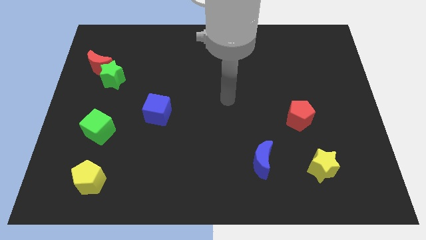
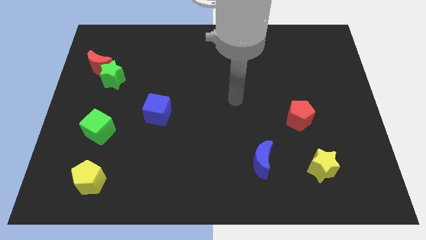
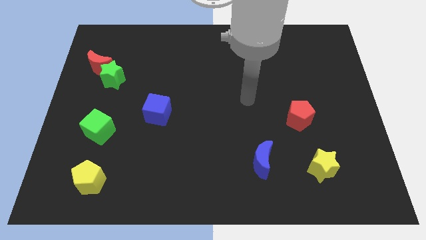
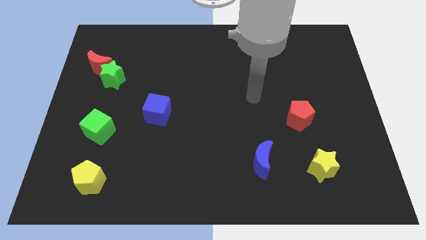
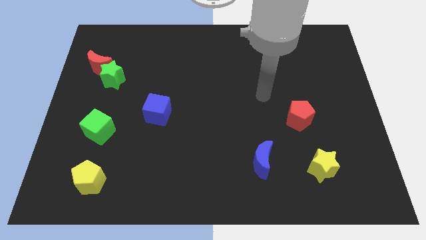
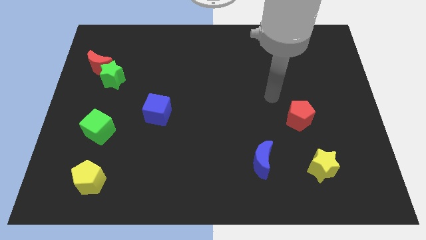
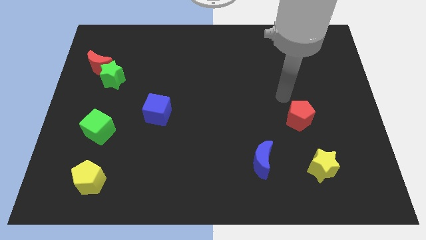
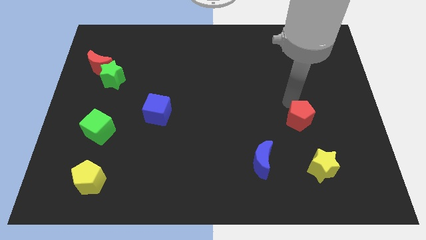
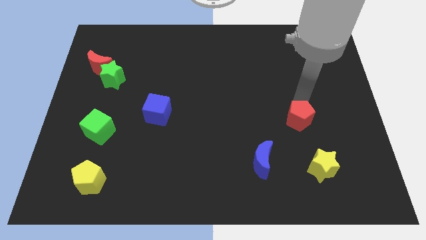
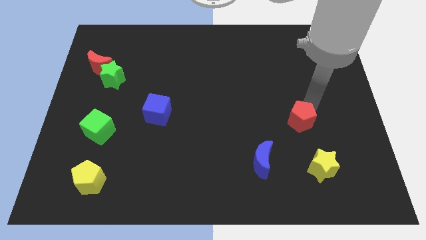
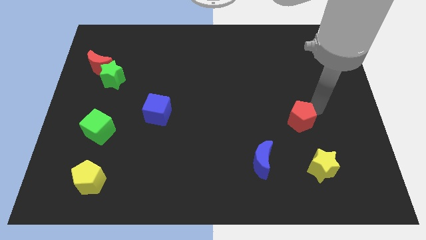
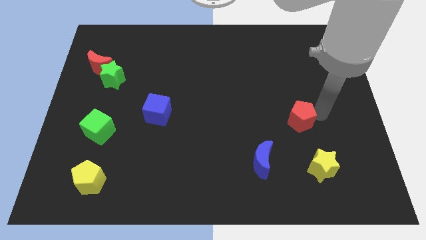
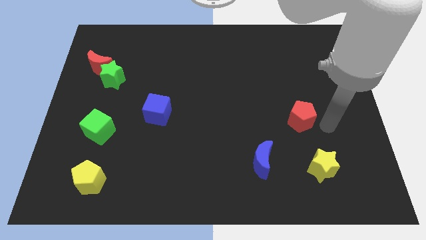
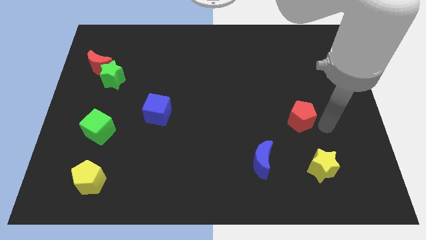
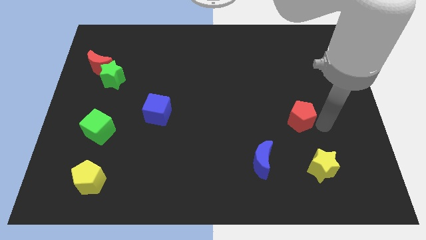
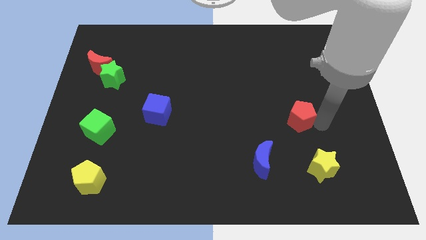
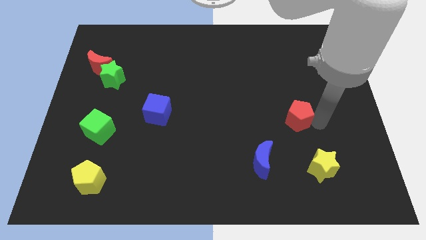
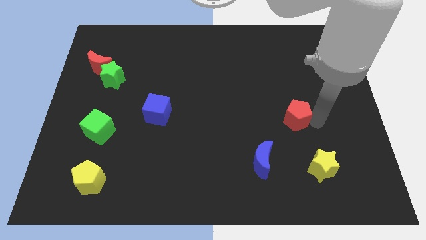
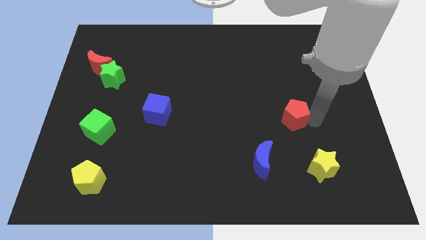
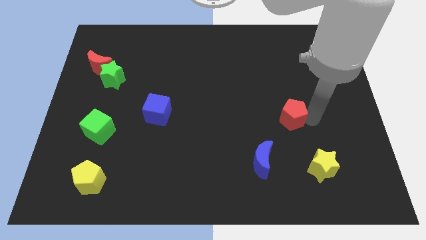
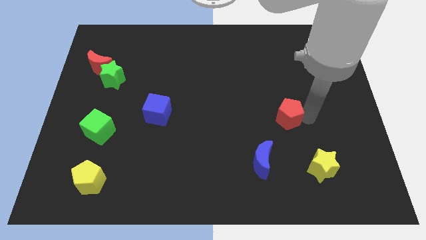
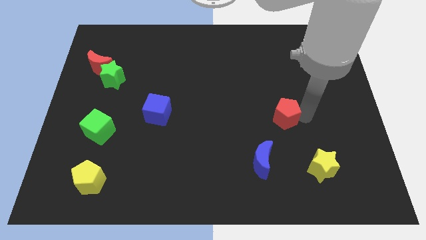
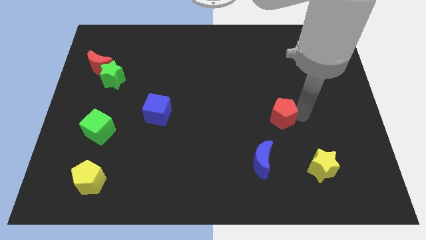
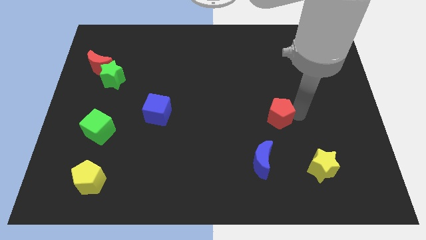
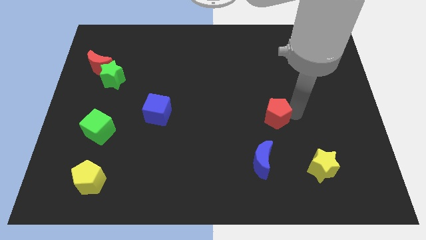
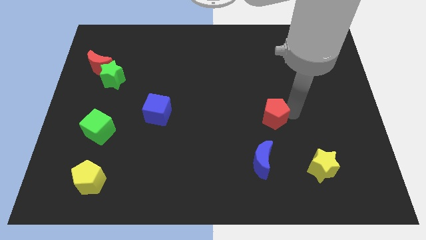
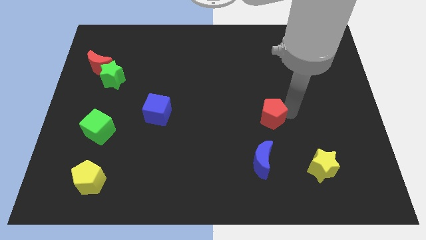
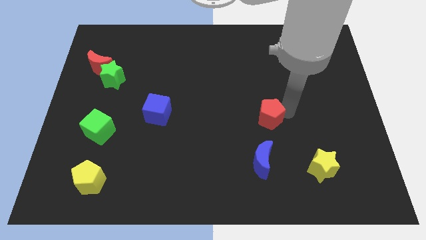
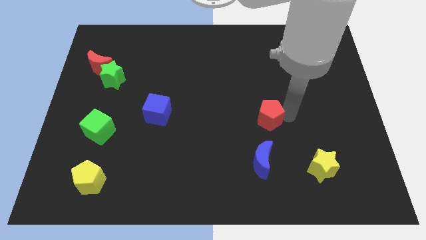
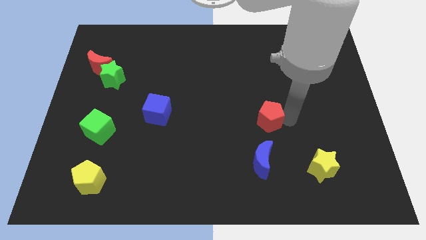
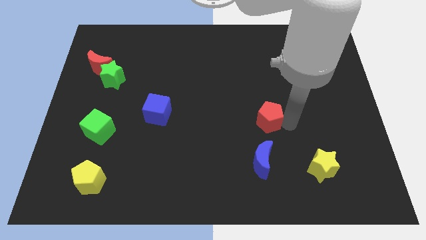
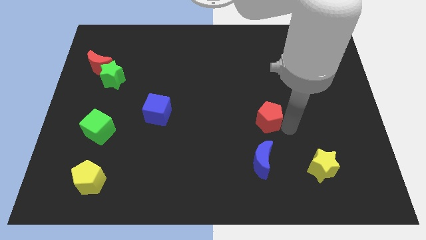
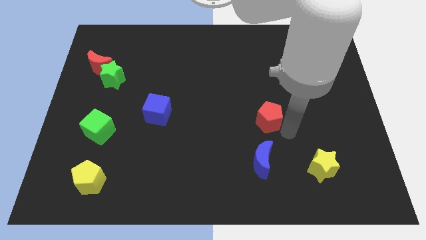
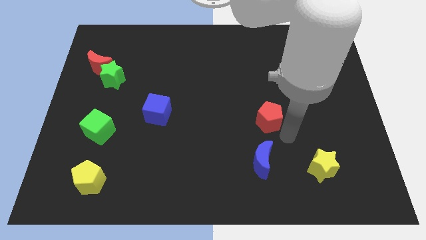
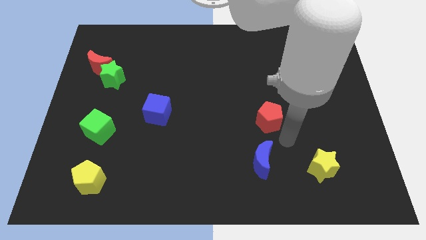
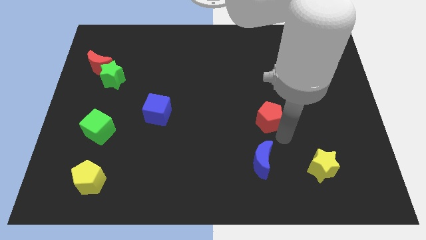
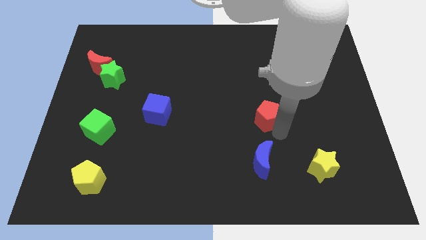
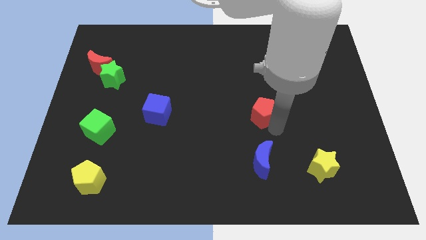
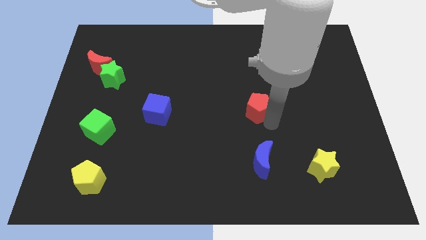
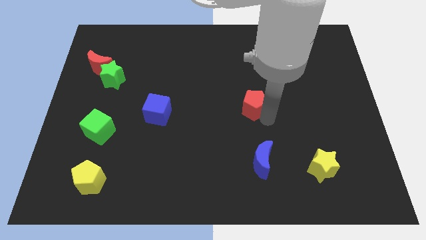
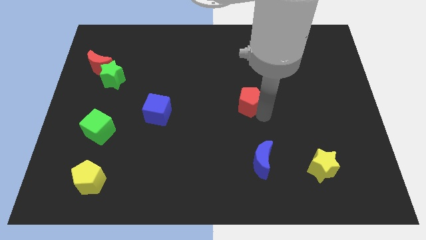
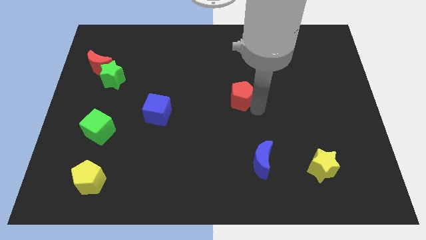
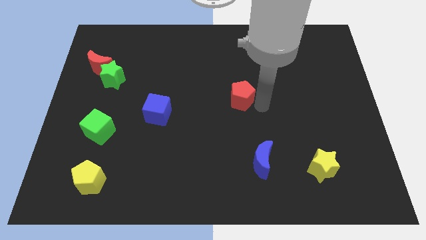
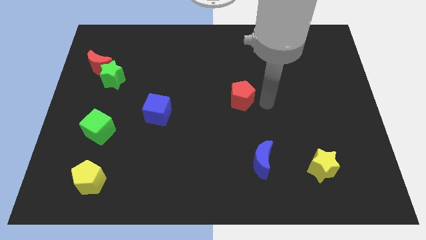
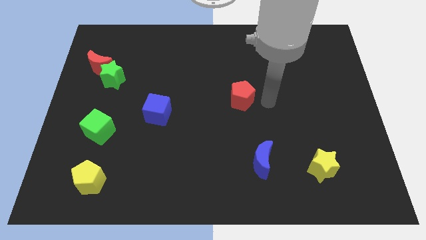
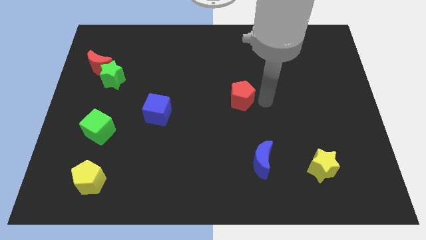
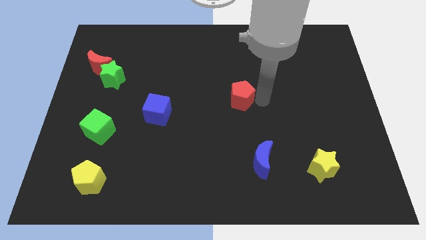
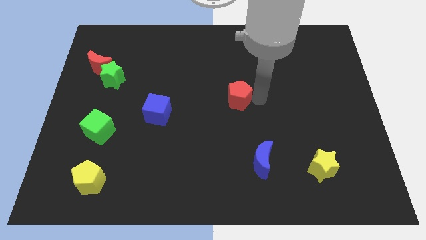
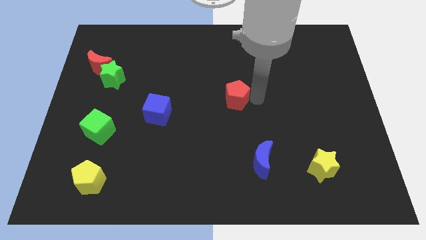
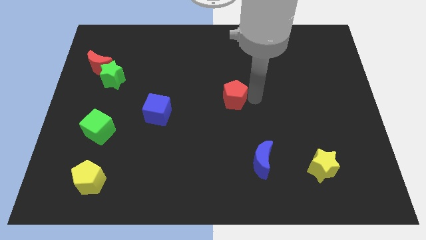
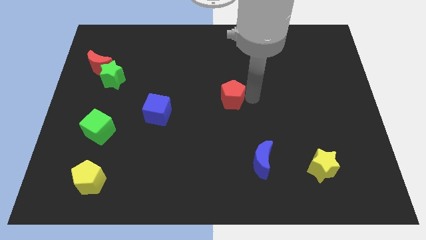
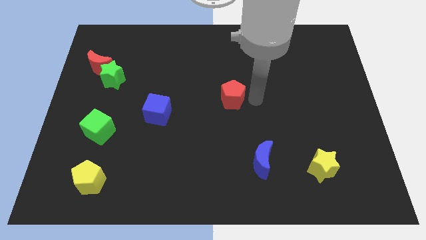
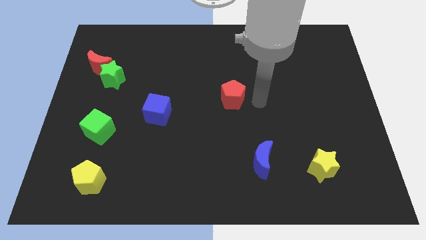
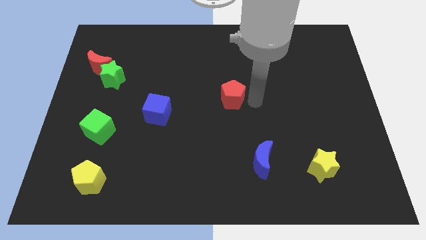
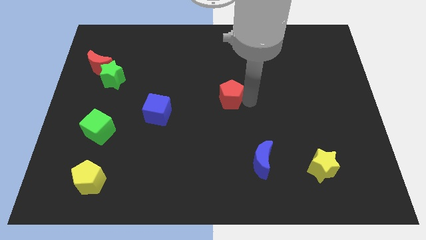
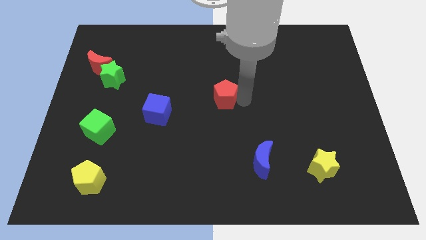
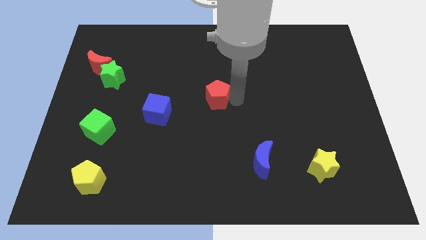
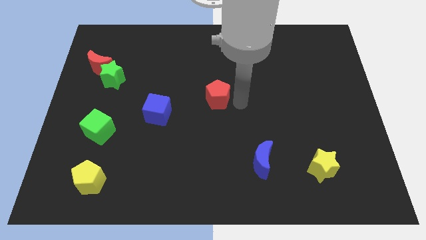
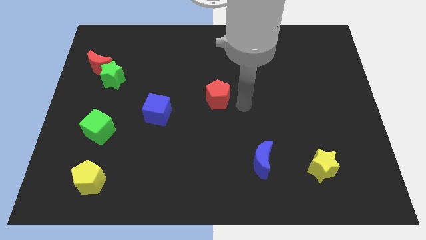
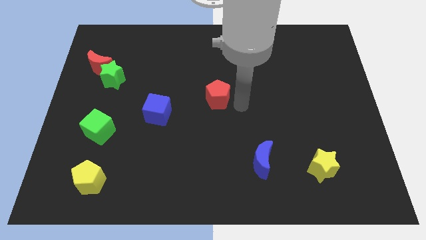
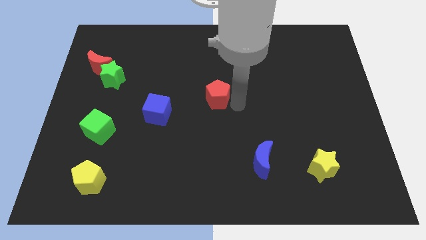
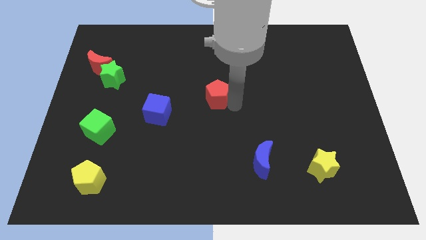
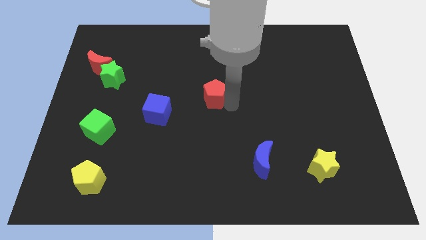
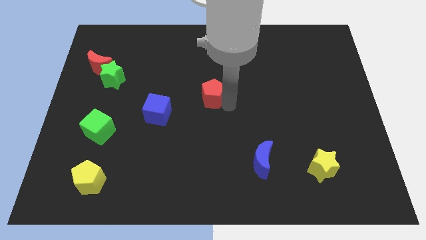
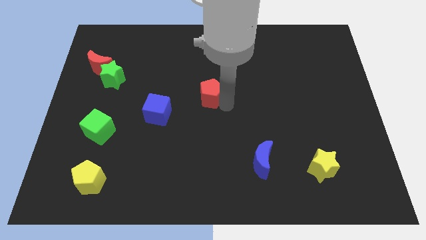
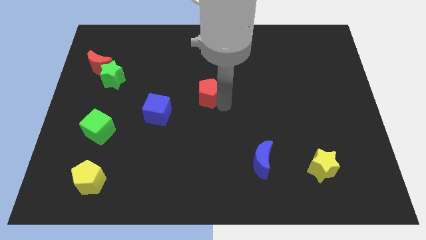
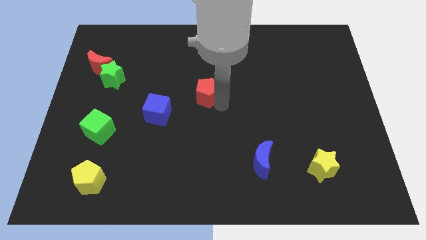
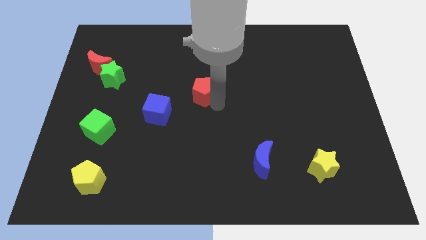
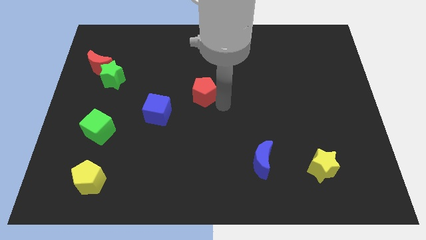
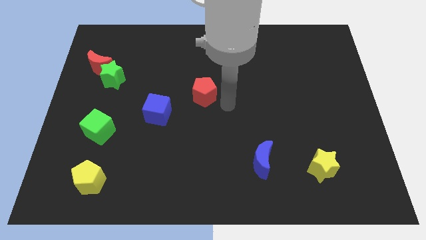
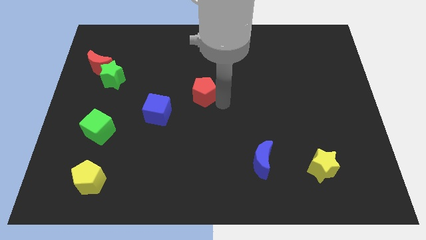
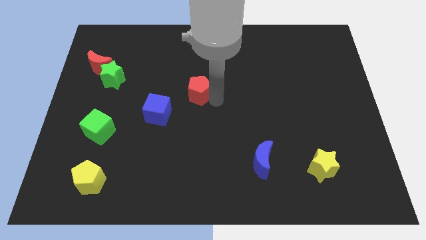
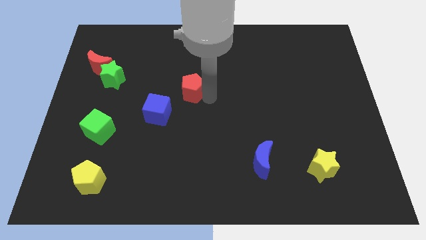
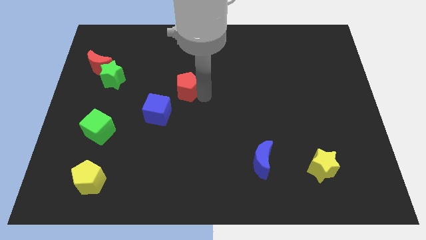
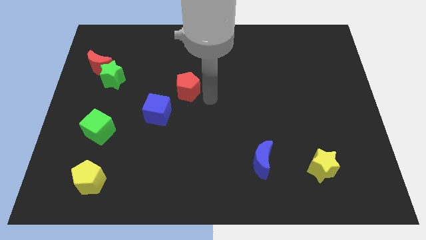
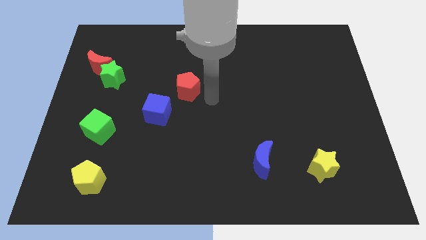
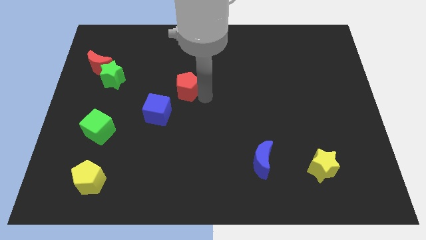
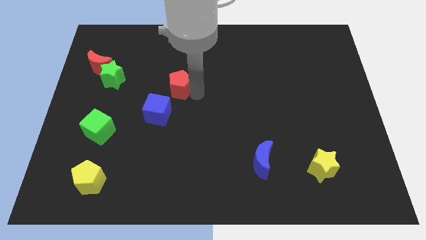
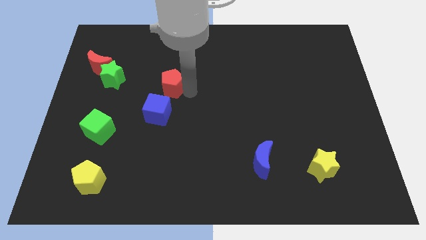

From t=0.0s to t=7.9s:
slide the red pentagon just right of the green star
